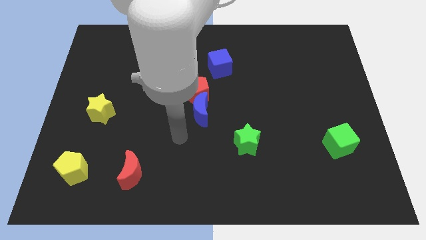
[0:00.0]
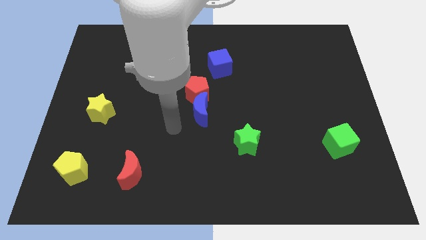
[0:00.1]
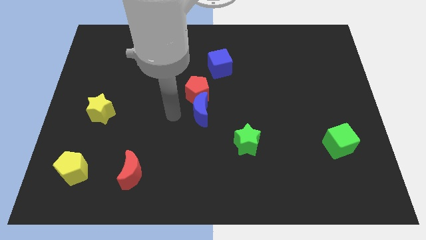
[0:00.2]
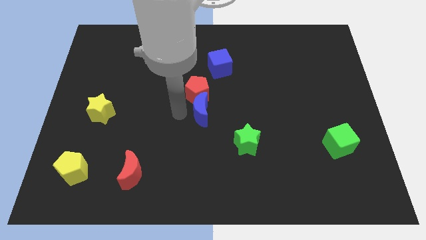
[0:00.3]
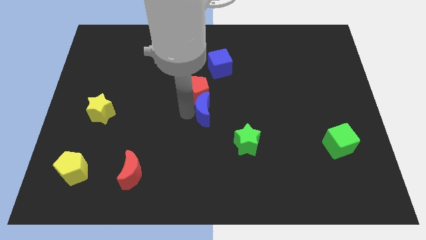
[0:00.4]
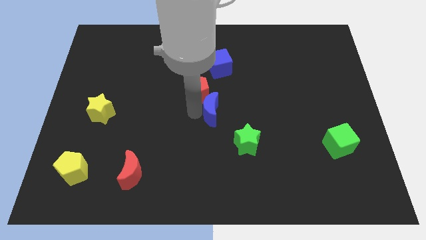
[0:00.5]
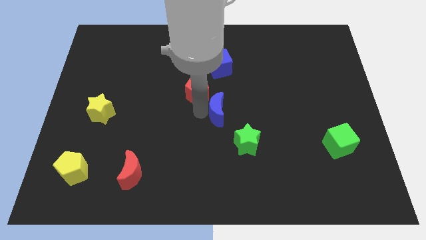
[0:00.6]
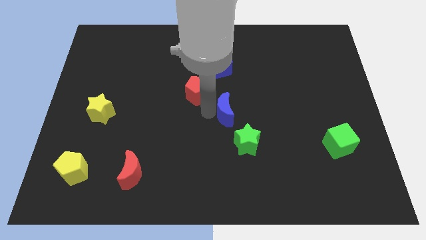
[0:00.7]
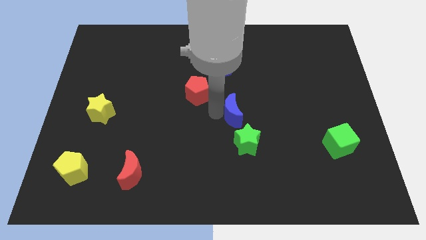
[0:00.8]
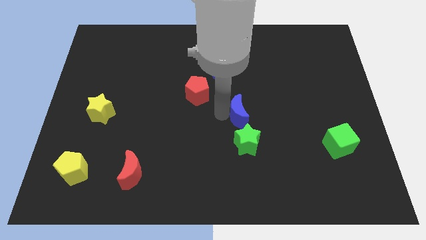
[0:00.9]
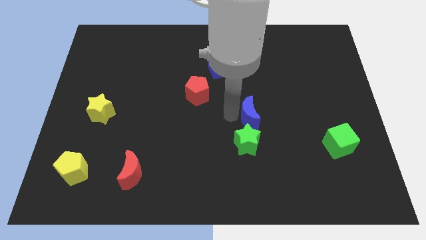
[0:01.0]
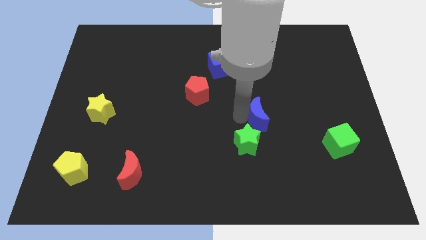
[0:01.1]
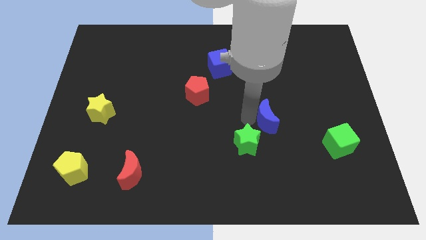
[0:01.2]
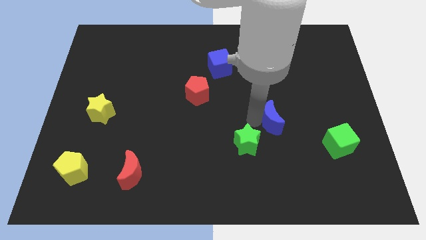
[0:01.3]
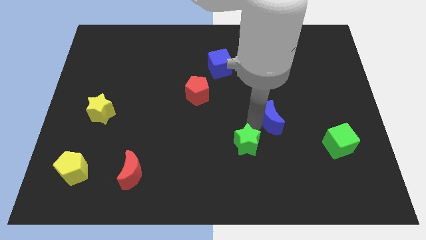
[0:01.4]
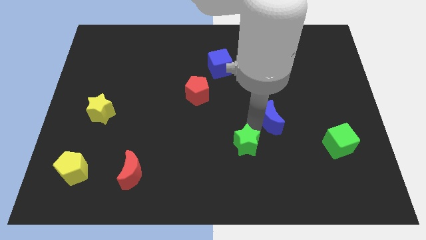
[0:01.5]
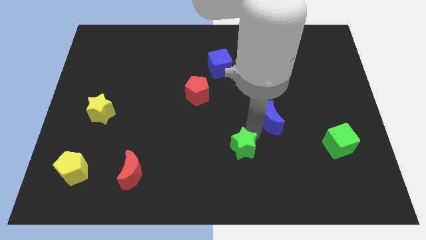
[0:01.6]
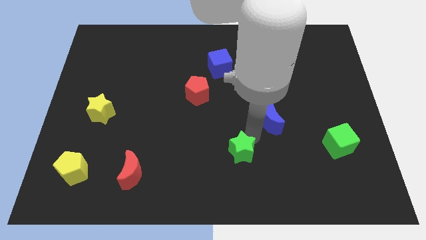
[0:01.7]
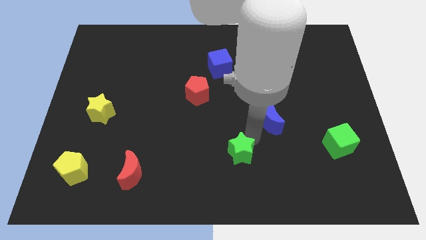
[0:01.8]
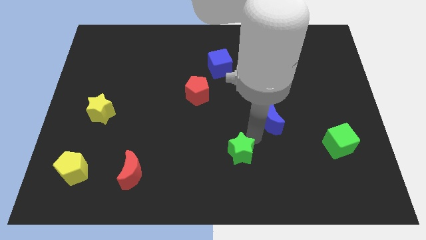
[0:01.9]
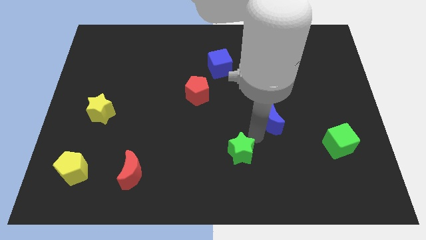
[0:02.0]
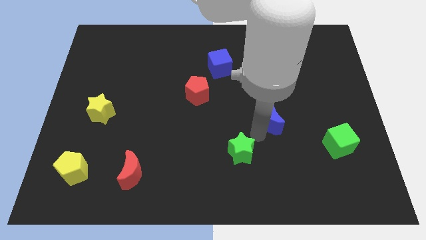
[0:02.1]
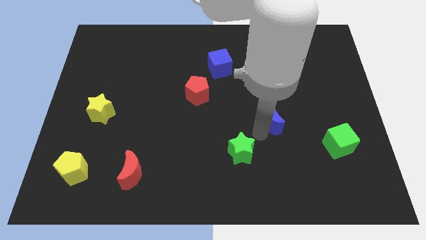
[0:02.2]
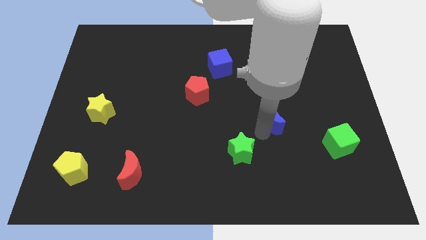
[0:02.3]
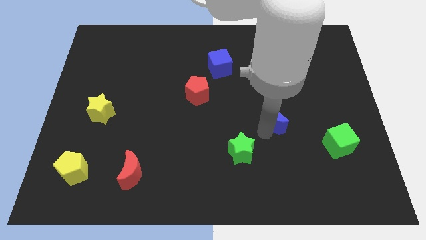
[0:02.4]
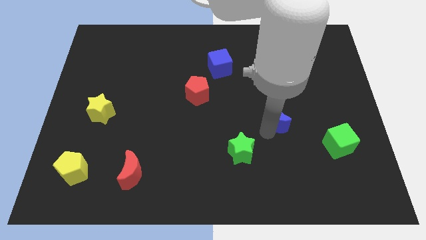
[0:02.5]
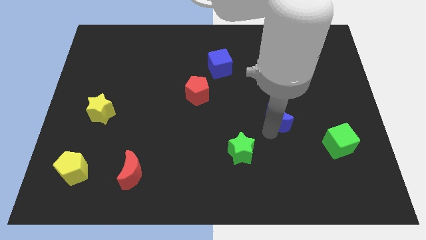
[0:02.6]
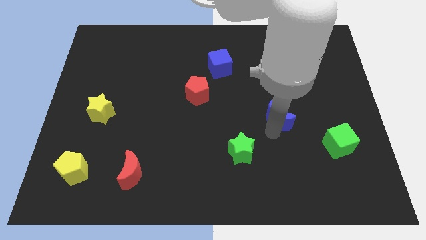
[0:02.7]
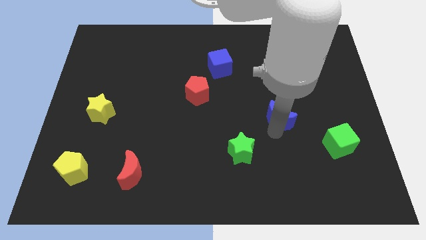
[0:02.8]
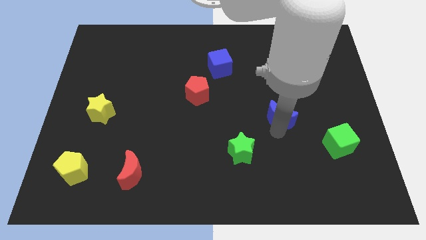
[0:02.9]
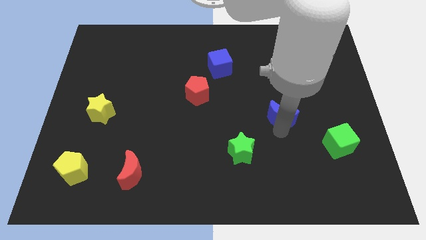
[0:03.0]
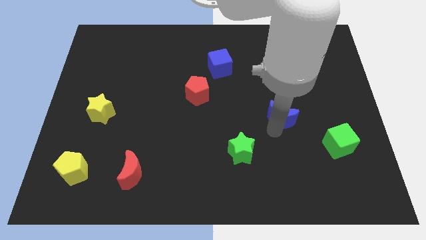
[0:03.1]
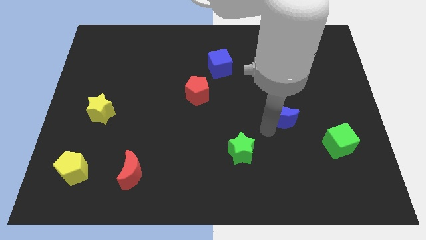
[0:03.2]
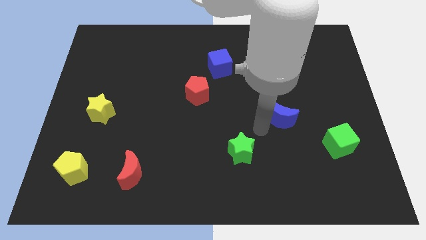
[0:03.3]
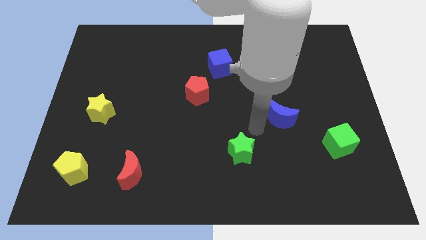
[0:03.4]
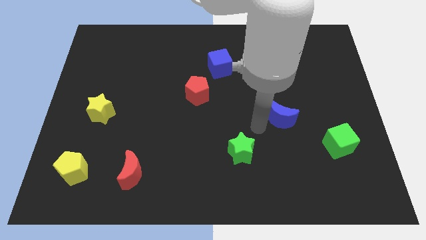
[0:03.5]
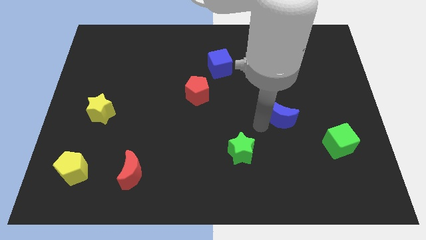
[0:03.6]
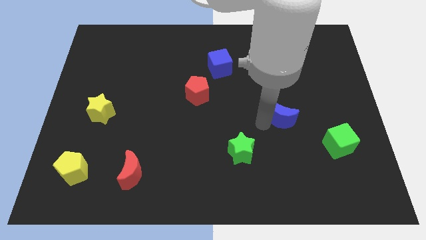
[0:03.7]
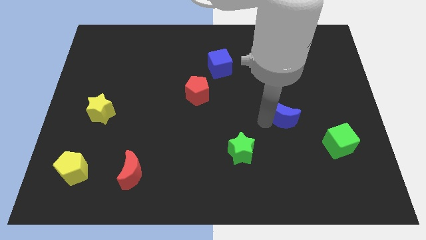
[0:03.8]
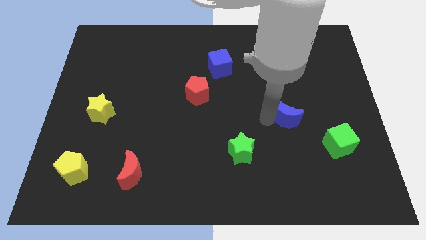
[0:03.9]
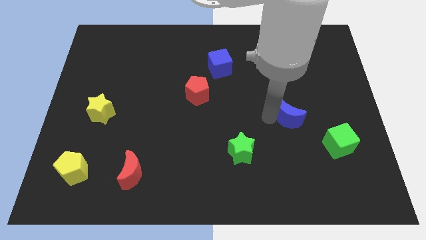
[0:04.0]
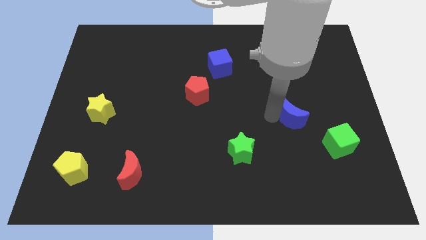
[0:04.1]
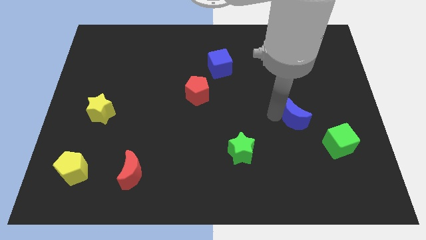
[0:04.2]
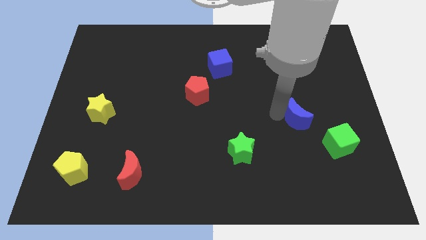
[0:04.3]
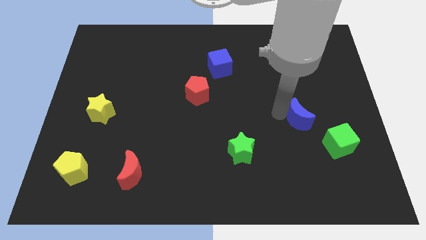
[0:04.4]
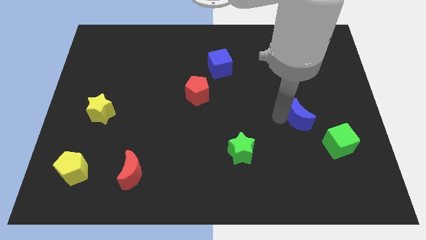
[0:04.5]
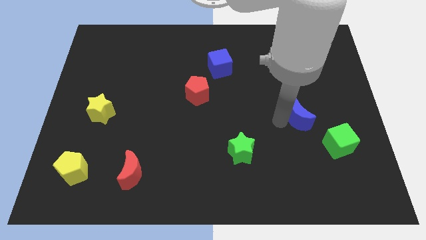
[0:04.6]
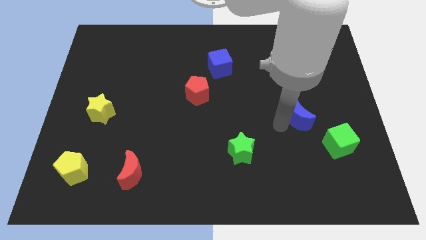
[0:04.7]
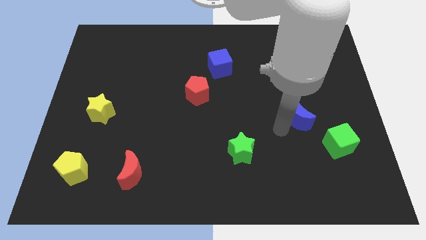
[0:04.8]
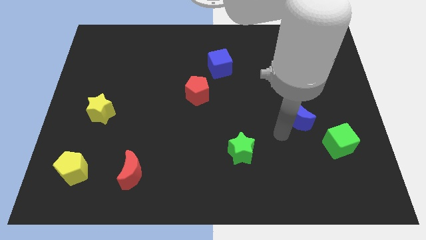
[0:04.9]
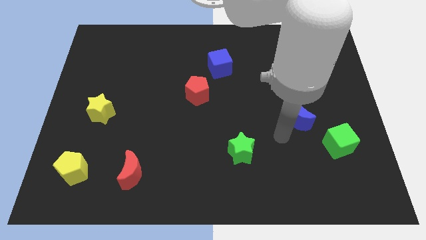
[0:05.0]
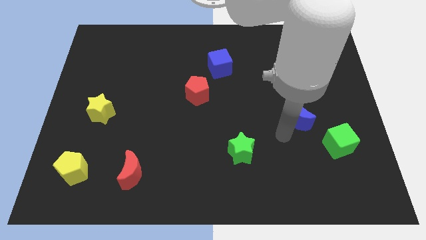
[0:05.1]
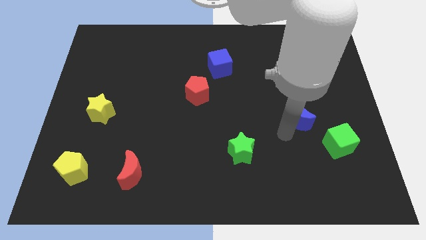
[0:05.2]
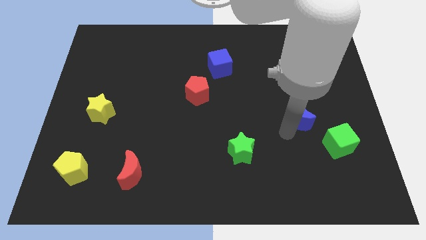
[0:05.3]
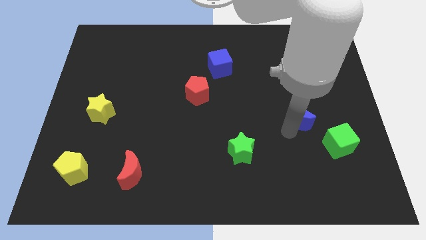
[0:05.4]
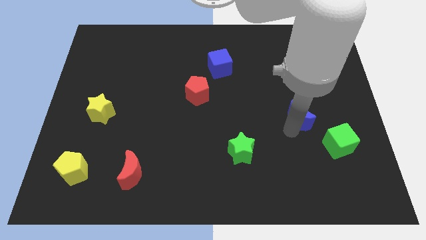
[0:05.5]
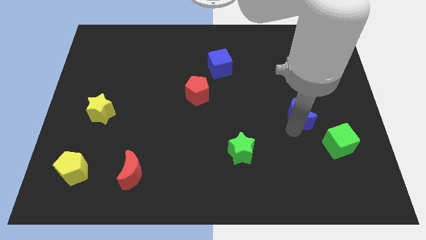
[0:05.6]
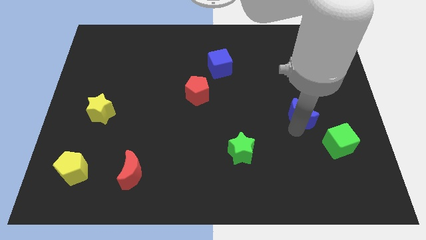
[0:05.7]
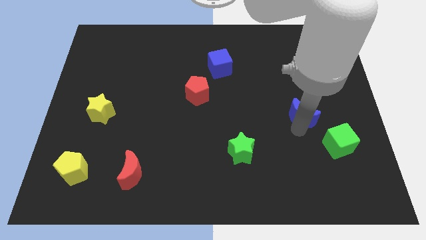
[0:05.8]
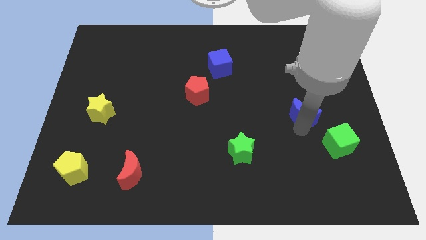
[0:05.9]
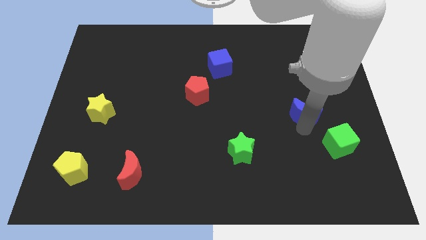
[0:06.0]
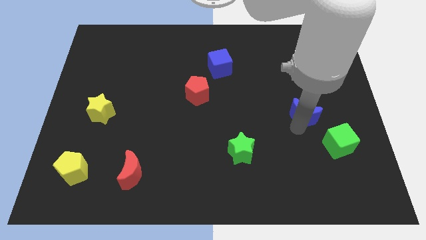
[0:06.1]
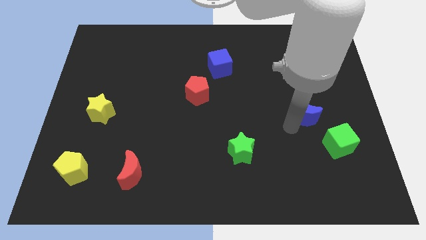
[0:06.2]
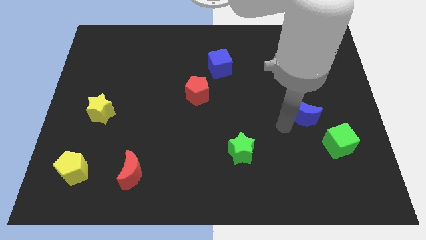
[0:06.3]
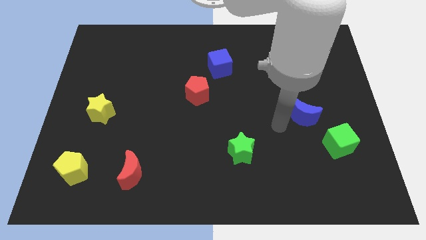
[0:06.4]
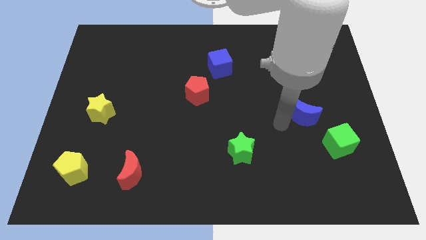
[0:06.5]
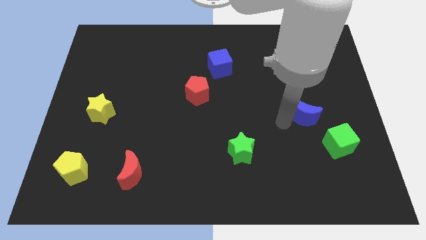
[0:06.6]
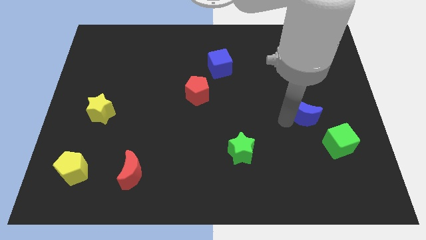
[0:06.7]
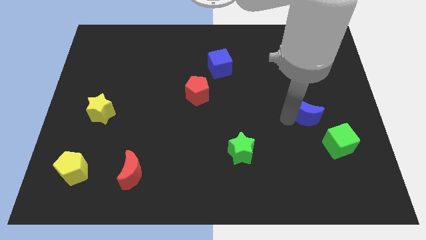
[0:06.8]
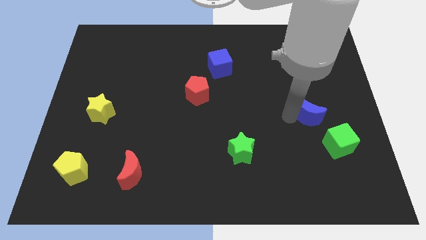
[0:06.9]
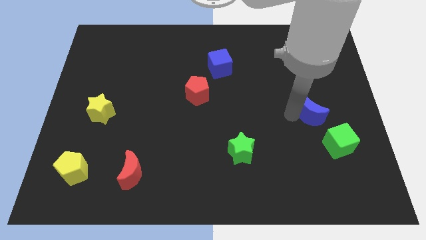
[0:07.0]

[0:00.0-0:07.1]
put the blue moon to the top of the green cube
